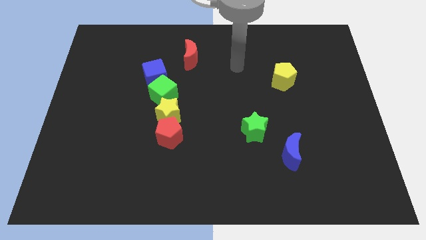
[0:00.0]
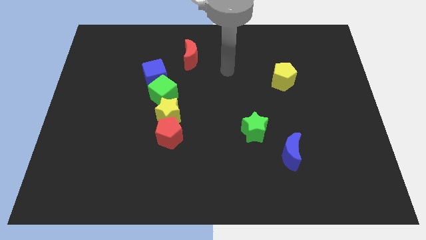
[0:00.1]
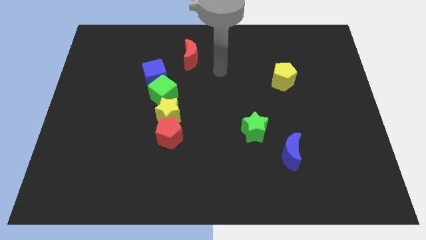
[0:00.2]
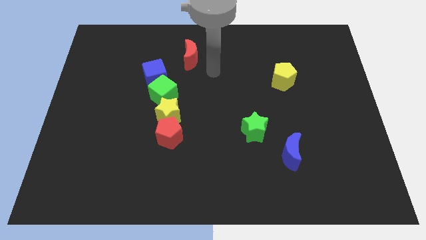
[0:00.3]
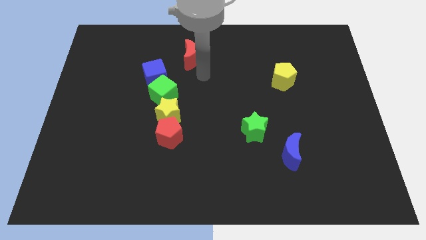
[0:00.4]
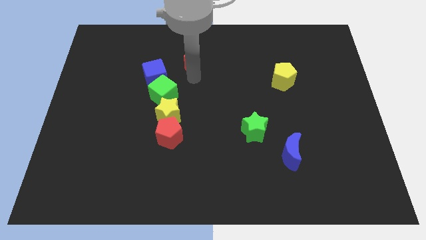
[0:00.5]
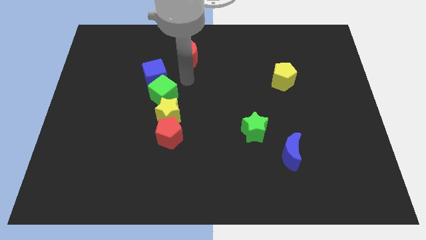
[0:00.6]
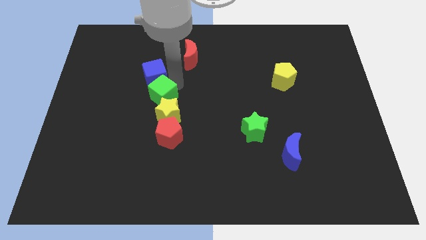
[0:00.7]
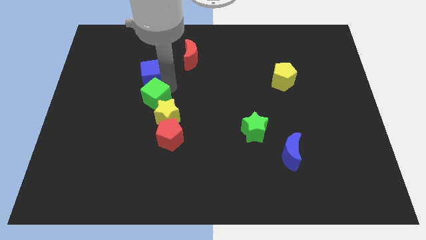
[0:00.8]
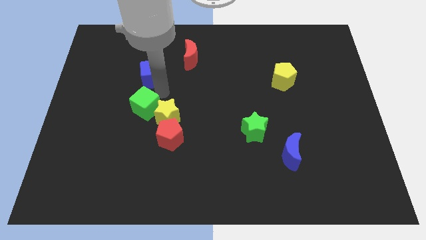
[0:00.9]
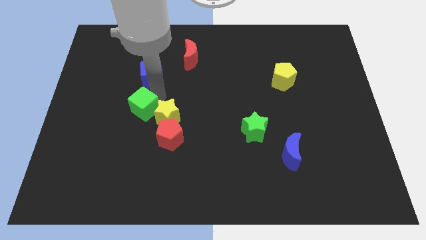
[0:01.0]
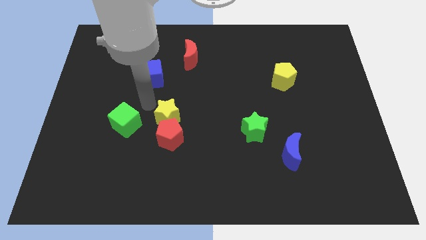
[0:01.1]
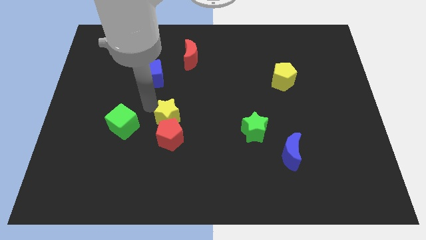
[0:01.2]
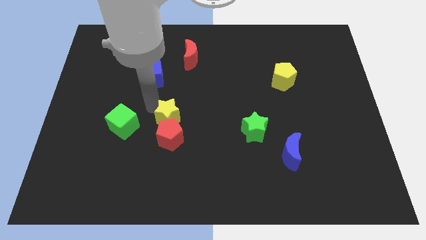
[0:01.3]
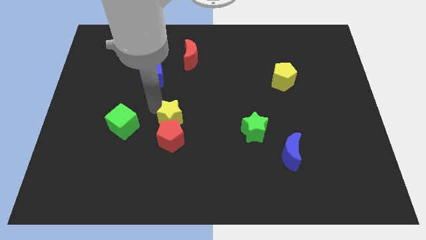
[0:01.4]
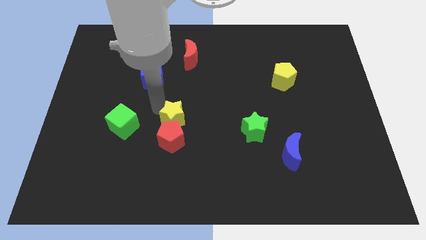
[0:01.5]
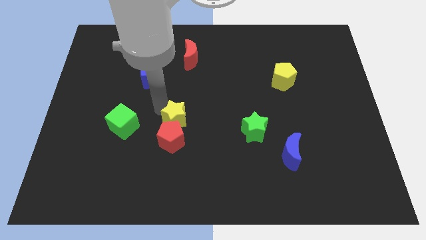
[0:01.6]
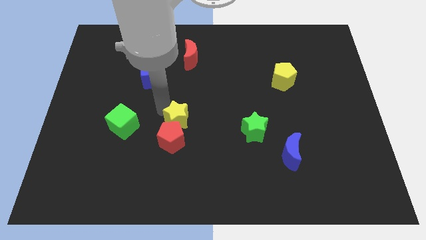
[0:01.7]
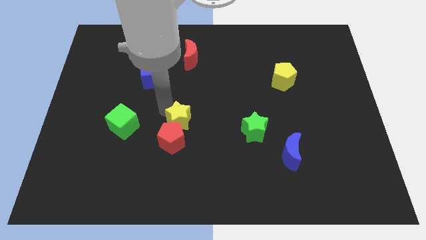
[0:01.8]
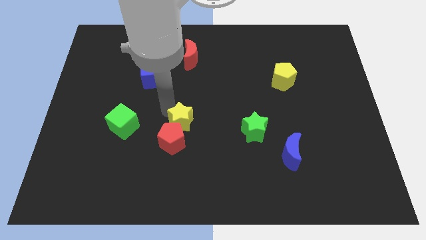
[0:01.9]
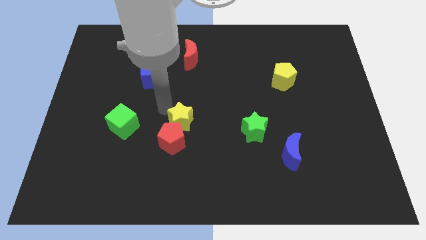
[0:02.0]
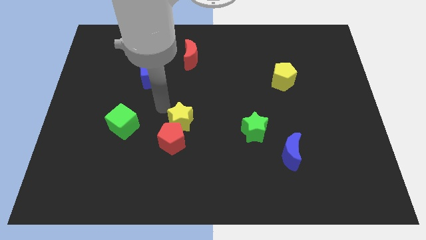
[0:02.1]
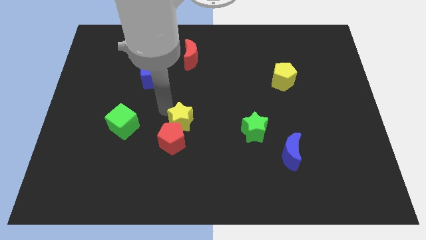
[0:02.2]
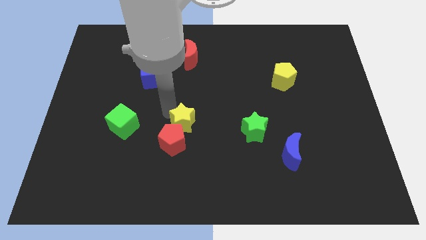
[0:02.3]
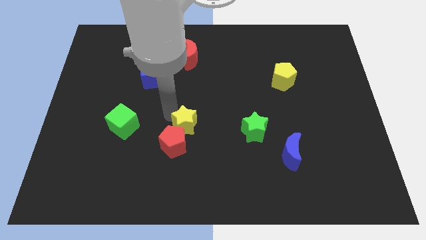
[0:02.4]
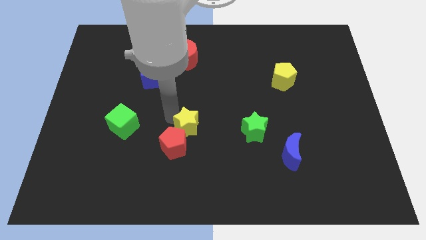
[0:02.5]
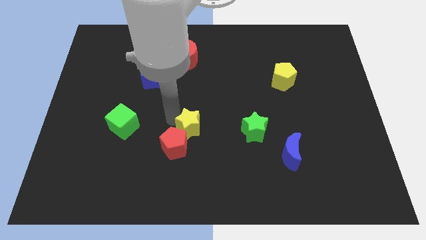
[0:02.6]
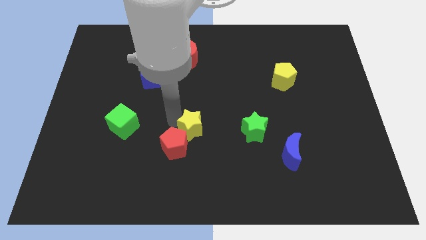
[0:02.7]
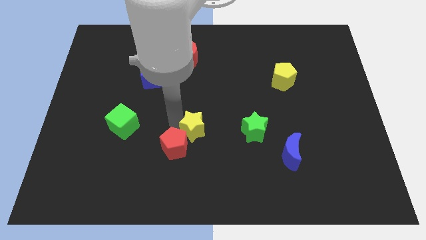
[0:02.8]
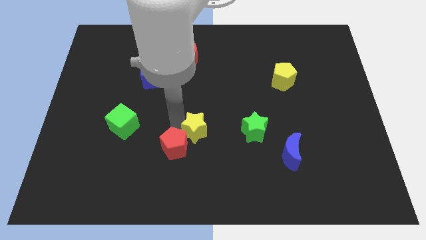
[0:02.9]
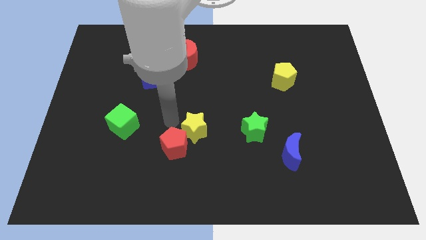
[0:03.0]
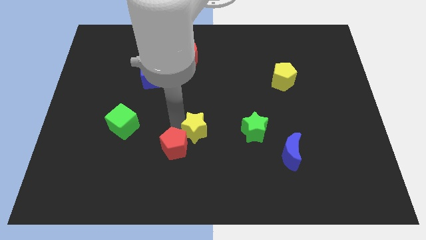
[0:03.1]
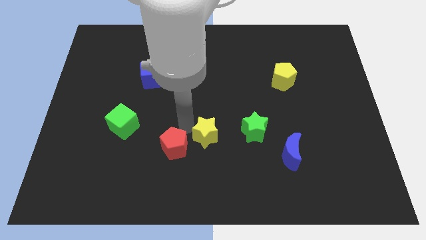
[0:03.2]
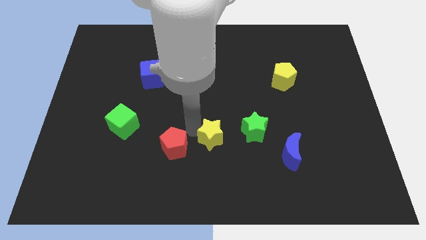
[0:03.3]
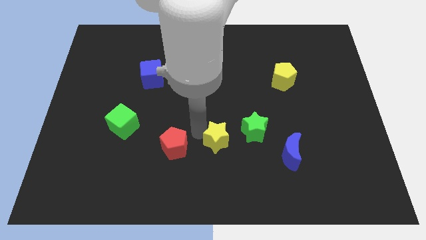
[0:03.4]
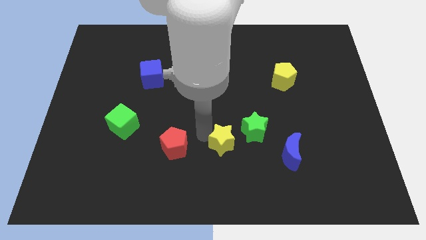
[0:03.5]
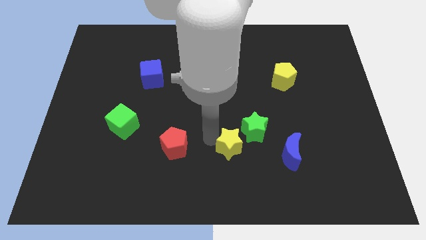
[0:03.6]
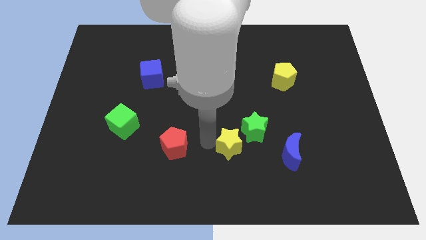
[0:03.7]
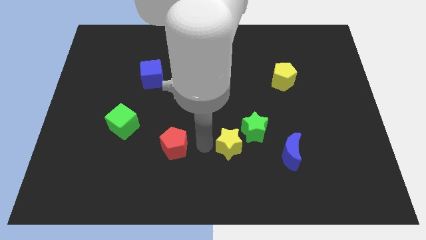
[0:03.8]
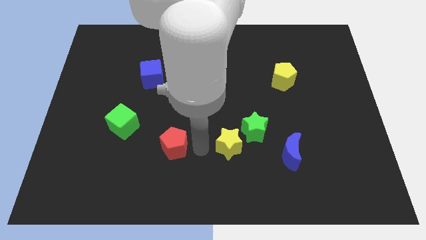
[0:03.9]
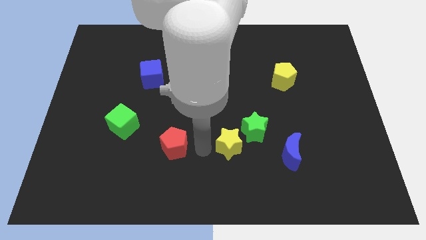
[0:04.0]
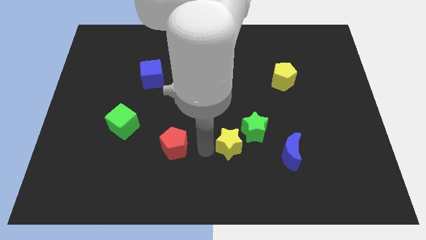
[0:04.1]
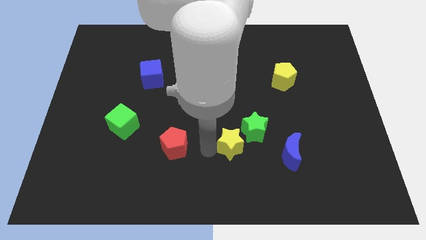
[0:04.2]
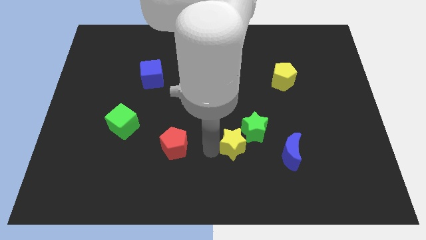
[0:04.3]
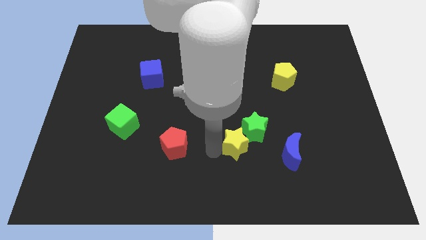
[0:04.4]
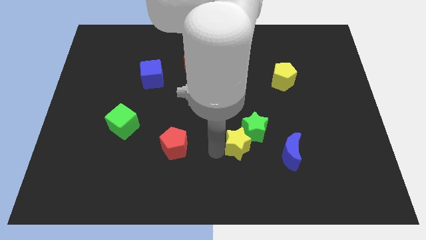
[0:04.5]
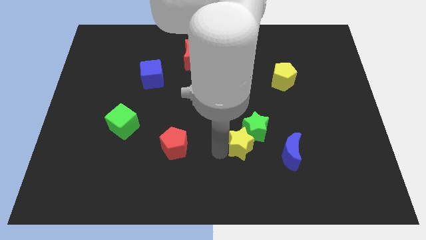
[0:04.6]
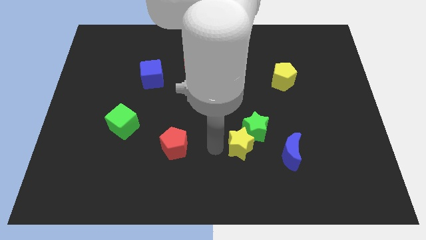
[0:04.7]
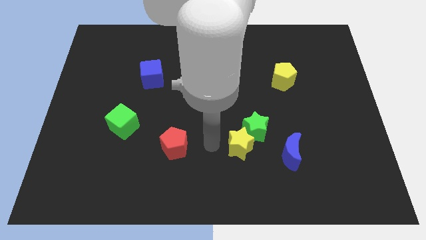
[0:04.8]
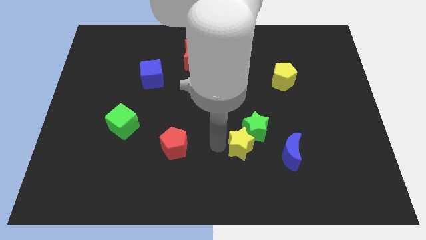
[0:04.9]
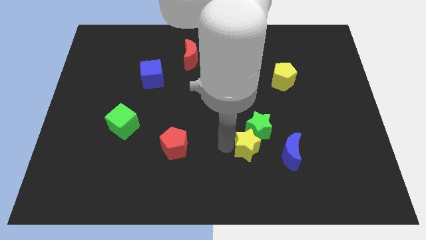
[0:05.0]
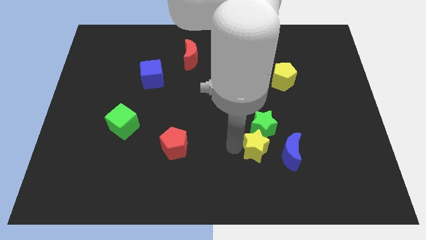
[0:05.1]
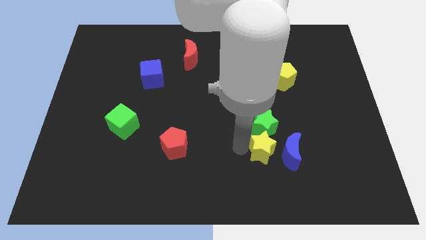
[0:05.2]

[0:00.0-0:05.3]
put the yellow star towards the blue moon

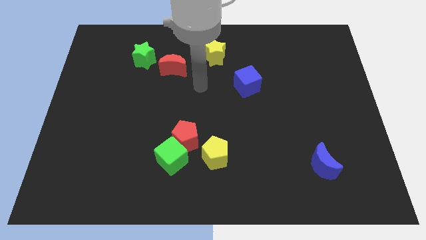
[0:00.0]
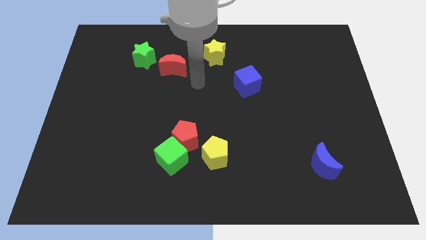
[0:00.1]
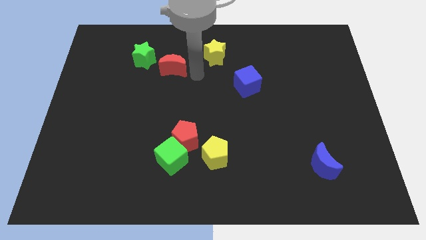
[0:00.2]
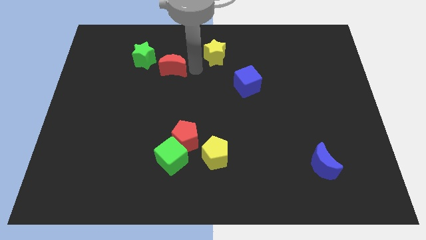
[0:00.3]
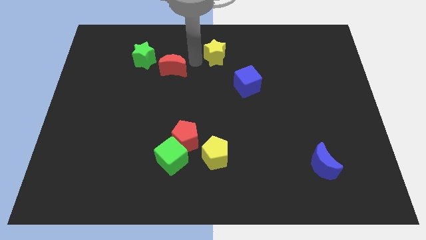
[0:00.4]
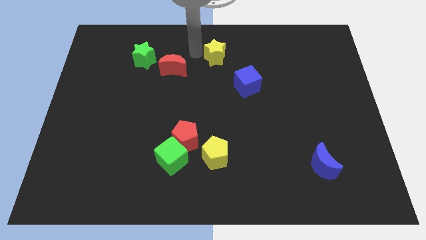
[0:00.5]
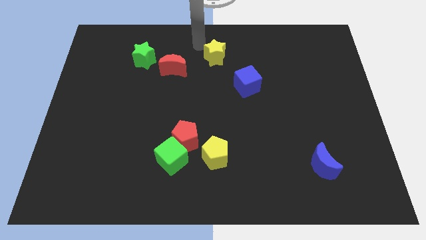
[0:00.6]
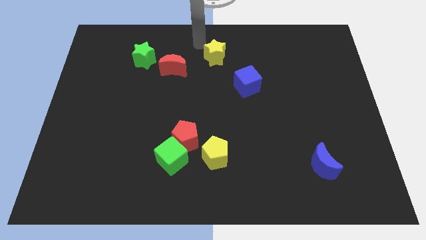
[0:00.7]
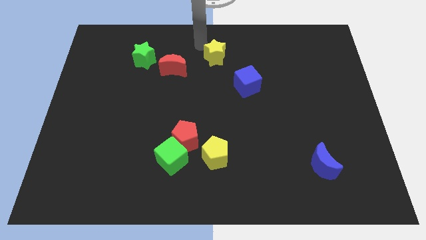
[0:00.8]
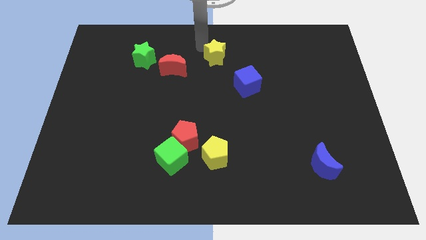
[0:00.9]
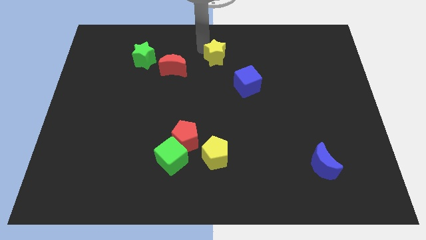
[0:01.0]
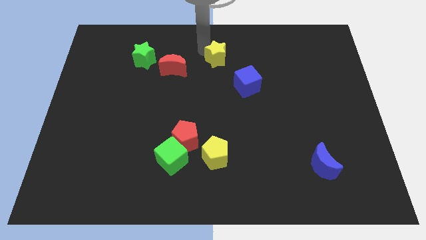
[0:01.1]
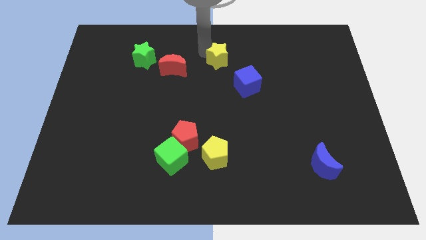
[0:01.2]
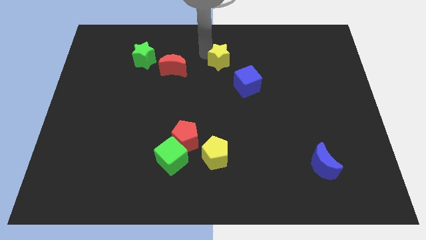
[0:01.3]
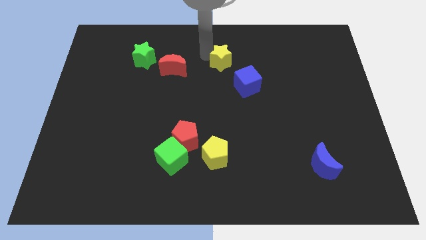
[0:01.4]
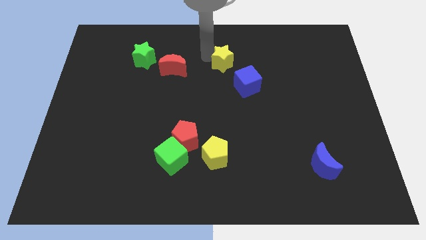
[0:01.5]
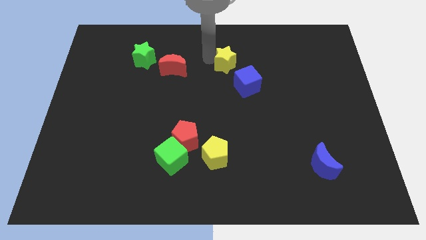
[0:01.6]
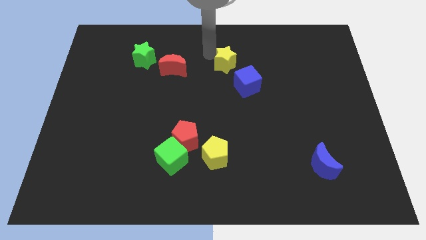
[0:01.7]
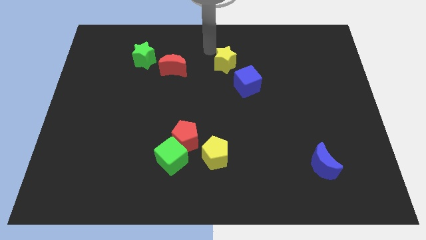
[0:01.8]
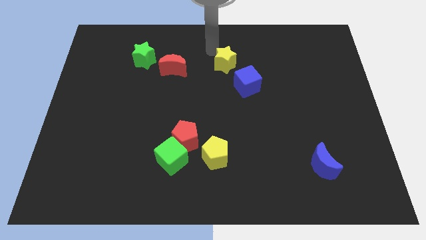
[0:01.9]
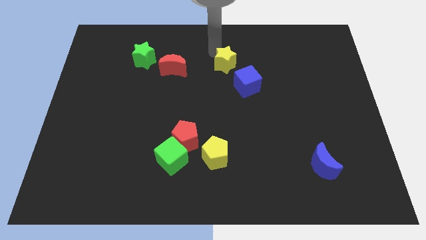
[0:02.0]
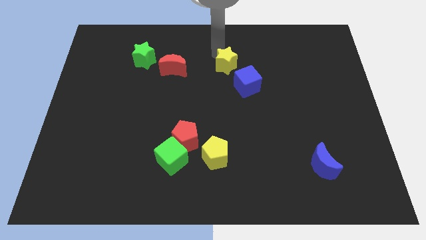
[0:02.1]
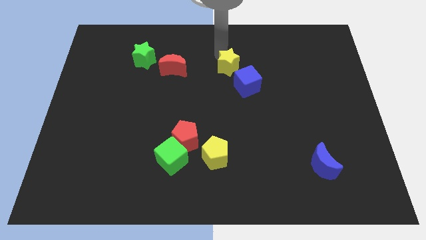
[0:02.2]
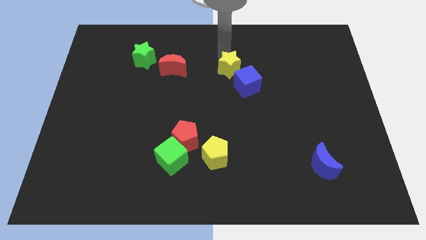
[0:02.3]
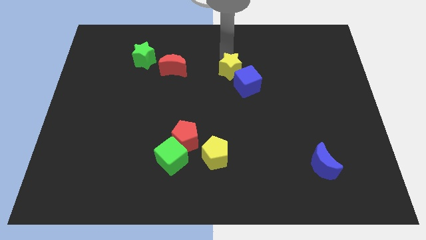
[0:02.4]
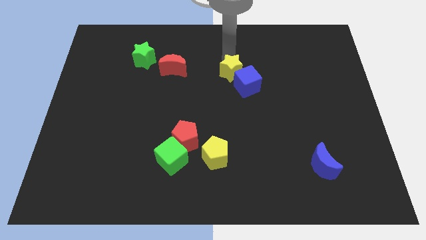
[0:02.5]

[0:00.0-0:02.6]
slide the yellow star to the blue cube
